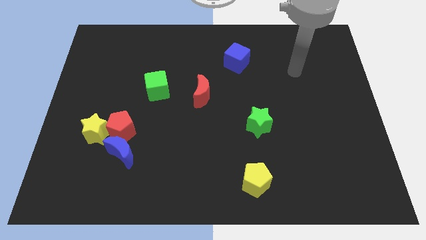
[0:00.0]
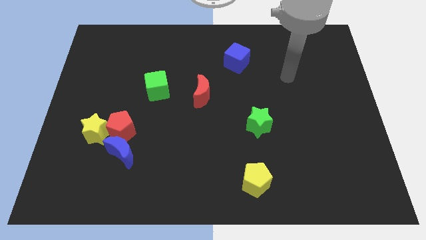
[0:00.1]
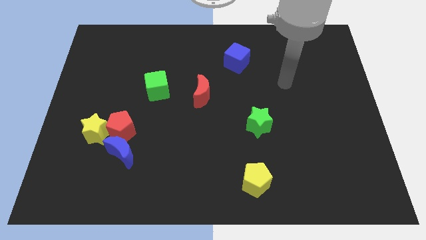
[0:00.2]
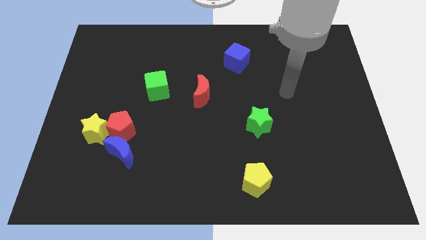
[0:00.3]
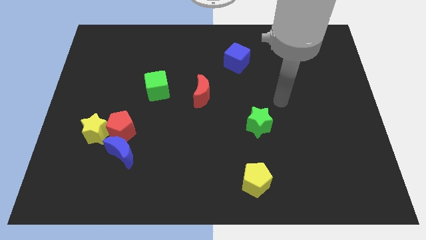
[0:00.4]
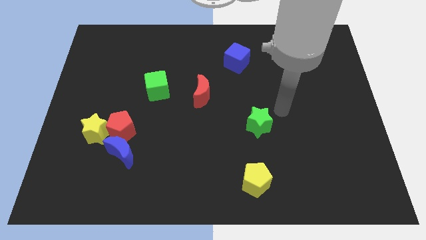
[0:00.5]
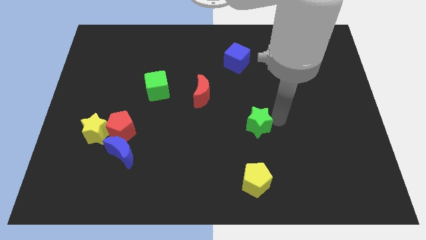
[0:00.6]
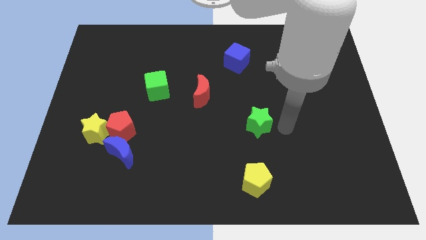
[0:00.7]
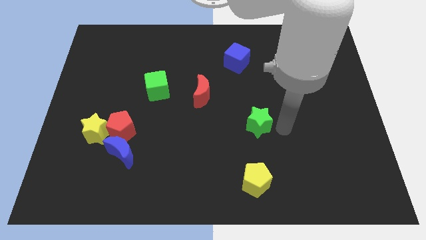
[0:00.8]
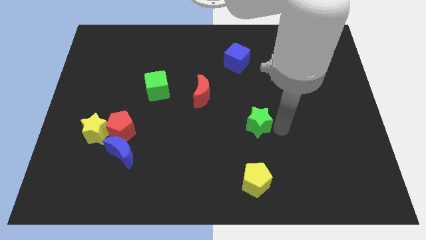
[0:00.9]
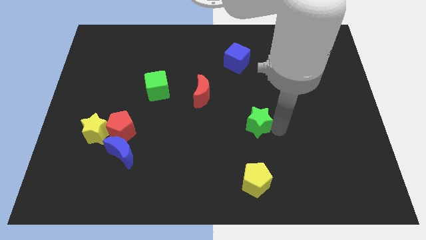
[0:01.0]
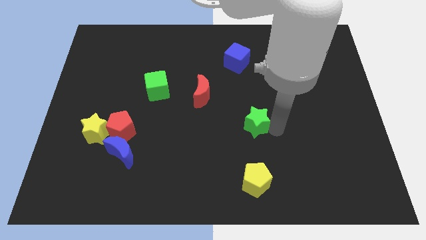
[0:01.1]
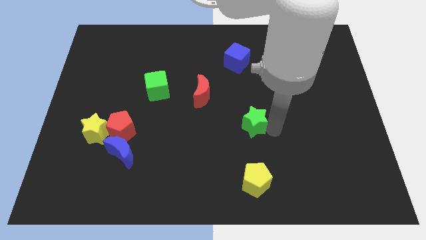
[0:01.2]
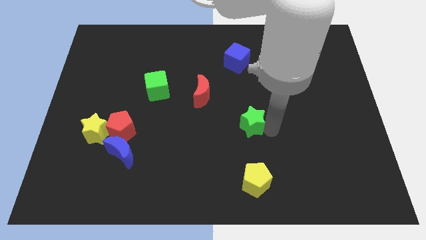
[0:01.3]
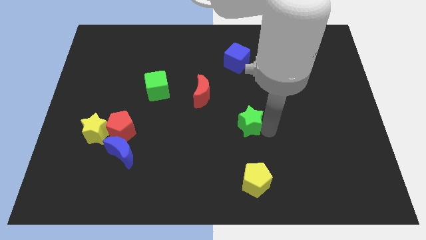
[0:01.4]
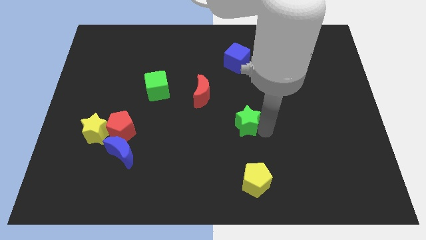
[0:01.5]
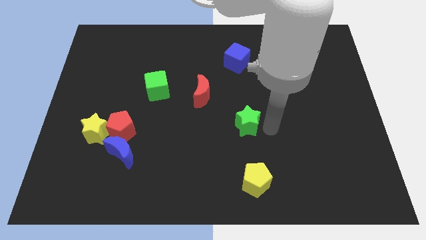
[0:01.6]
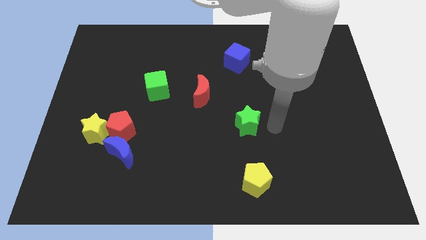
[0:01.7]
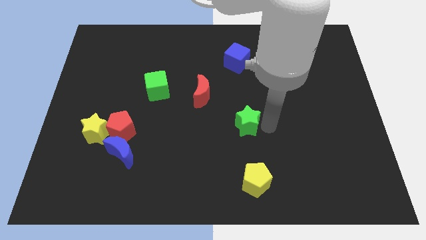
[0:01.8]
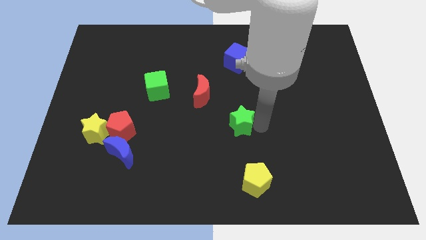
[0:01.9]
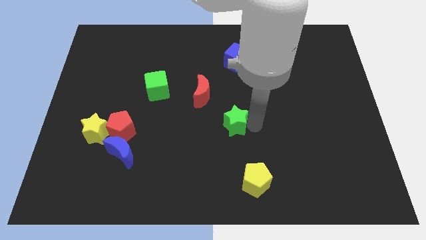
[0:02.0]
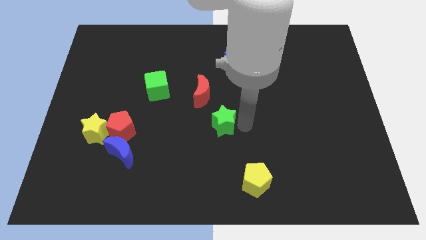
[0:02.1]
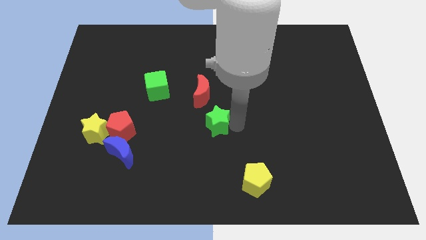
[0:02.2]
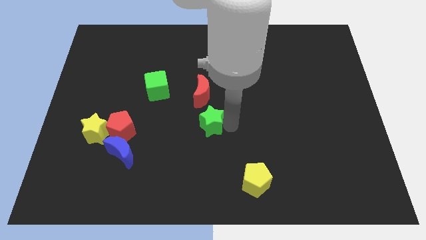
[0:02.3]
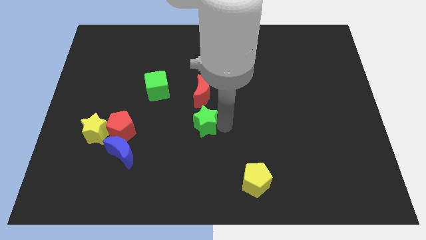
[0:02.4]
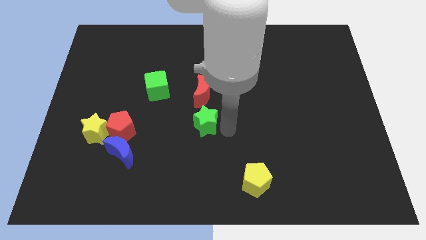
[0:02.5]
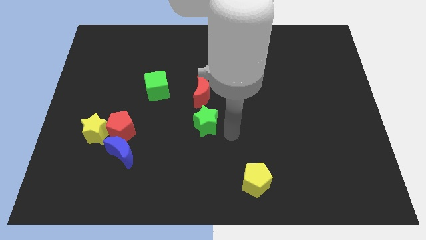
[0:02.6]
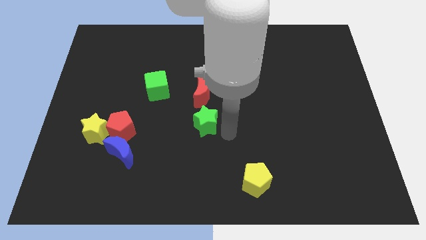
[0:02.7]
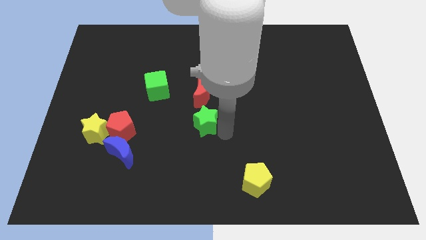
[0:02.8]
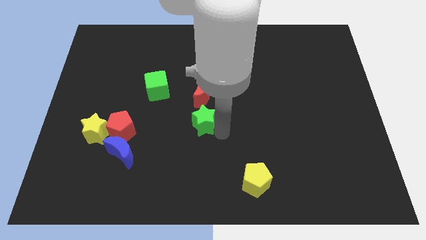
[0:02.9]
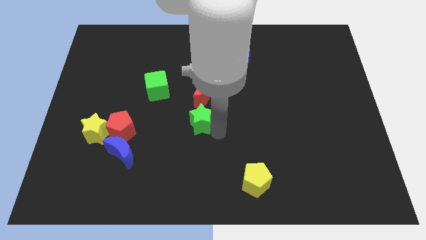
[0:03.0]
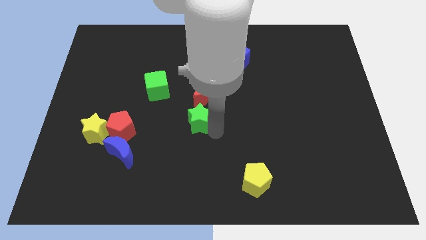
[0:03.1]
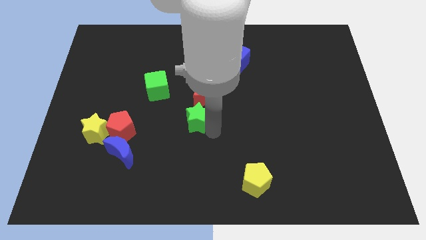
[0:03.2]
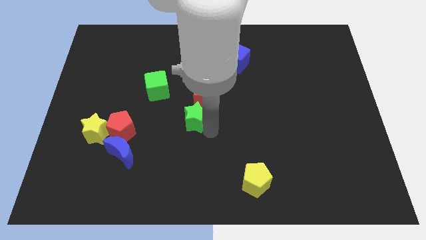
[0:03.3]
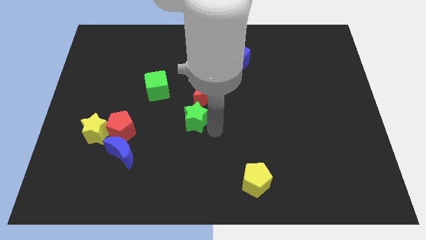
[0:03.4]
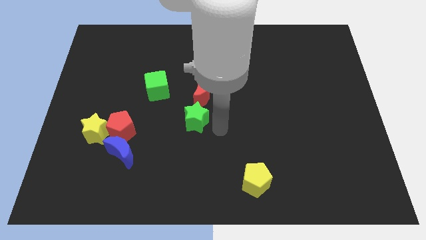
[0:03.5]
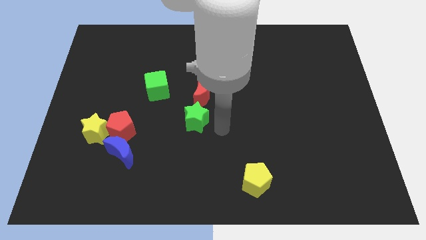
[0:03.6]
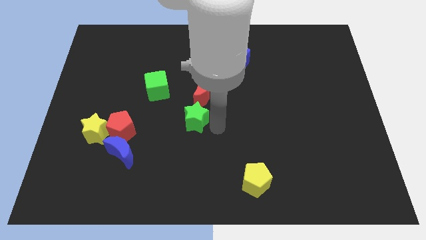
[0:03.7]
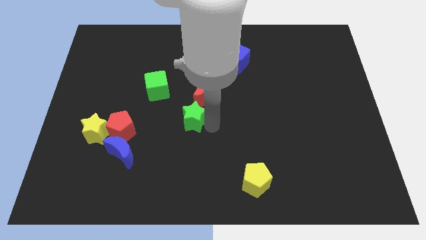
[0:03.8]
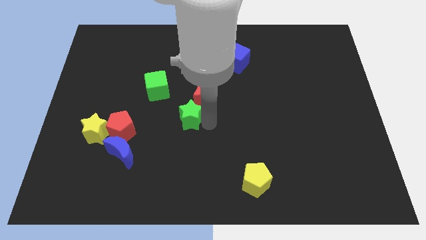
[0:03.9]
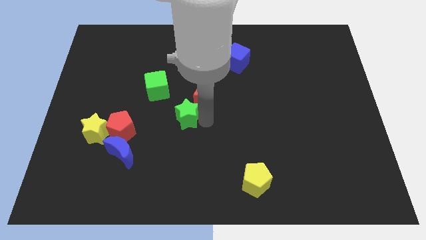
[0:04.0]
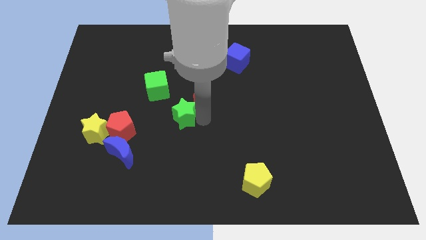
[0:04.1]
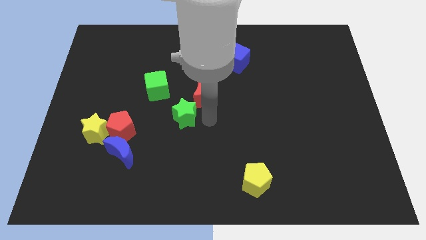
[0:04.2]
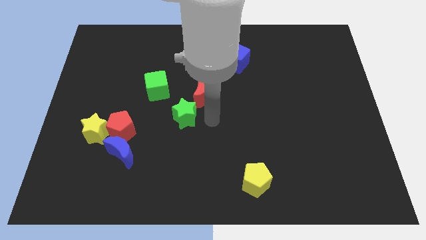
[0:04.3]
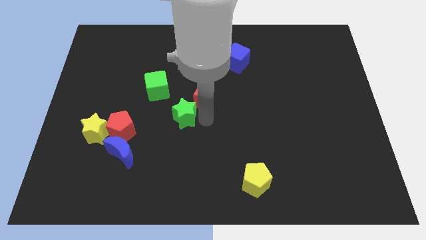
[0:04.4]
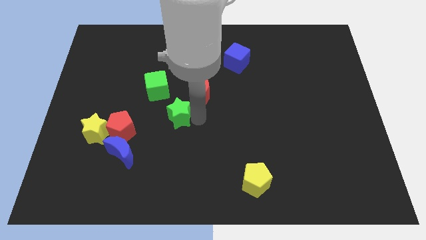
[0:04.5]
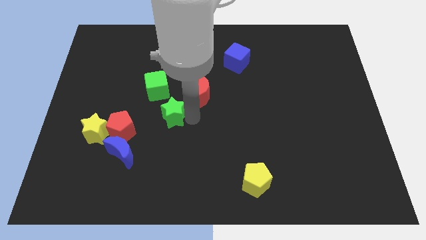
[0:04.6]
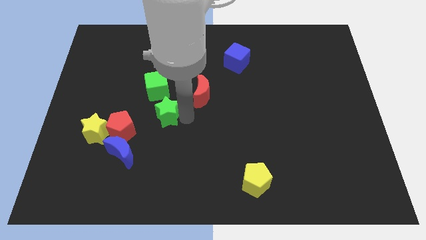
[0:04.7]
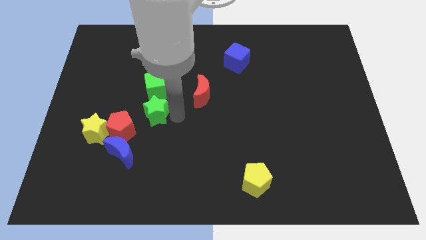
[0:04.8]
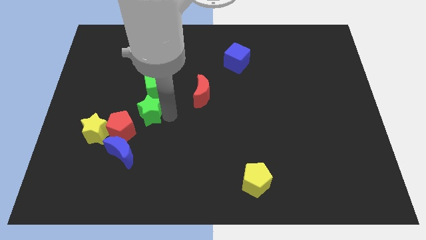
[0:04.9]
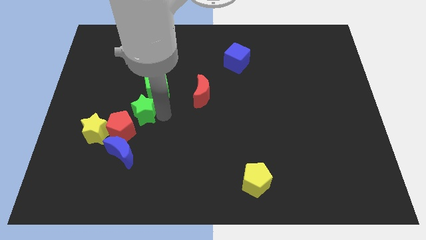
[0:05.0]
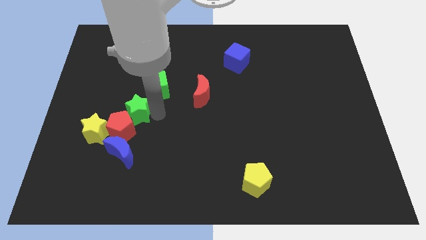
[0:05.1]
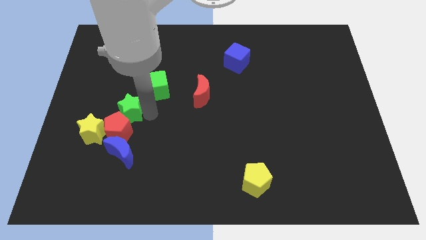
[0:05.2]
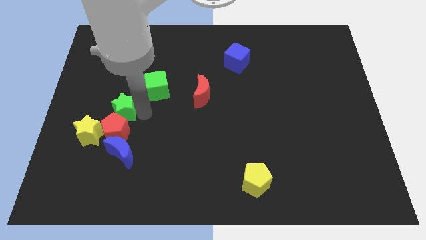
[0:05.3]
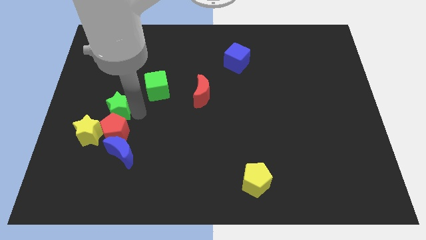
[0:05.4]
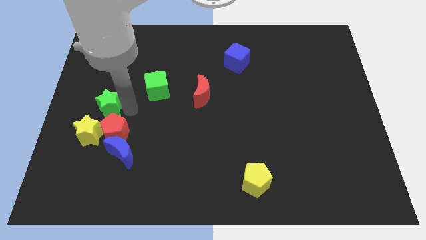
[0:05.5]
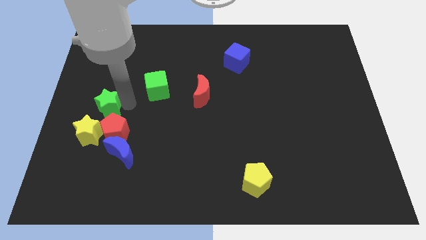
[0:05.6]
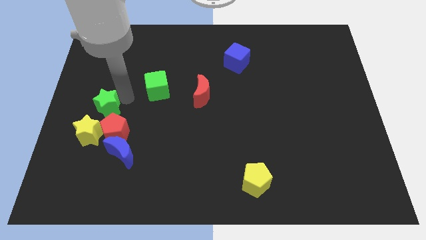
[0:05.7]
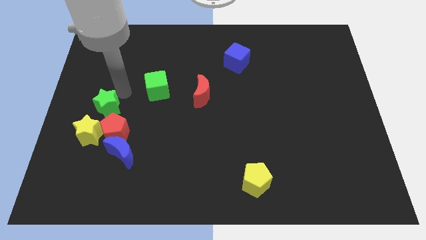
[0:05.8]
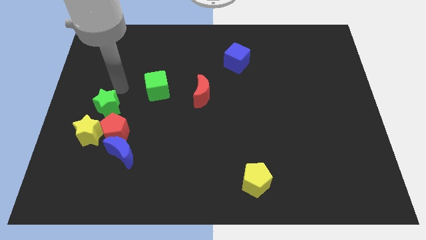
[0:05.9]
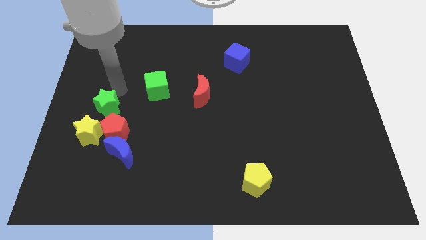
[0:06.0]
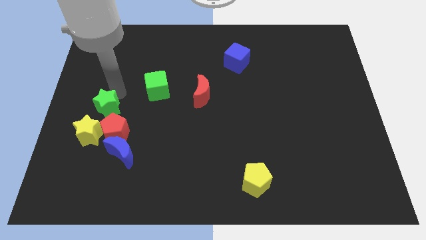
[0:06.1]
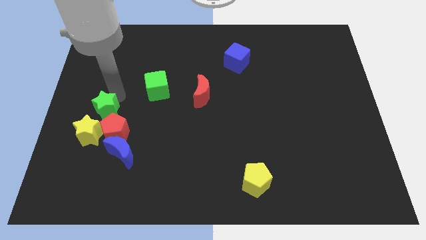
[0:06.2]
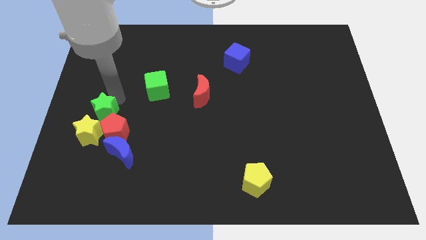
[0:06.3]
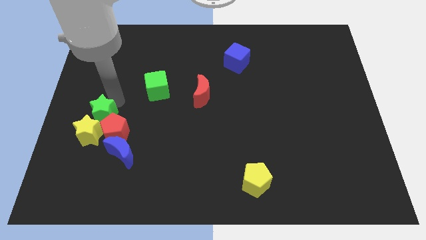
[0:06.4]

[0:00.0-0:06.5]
push the green star next to the yellow star
